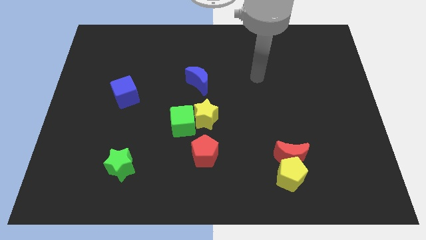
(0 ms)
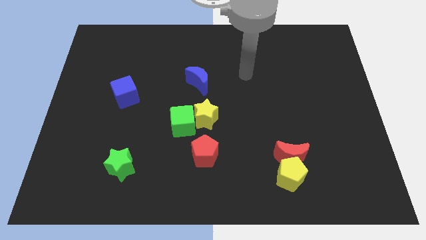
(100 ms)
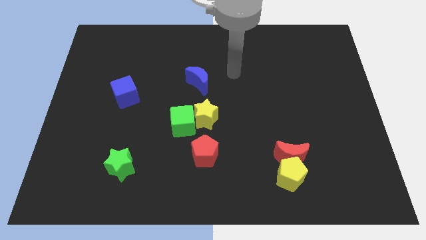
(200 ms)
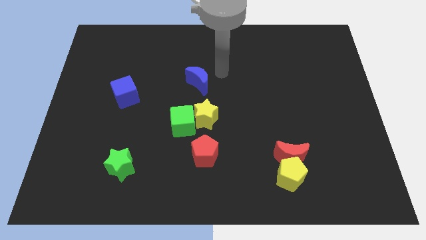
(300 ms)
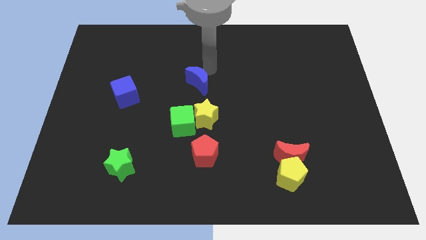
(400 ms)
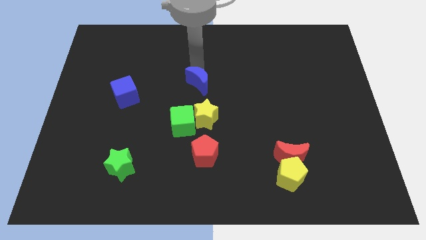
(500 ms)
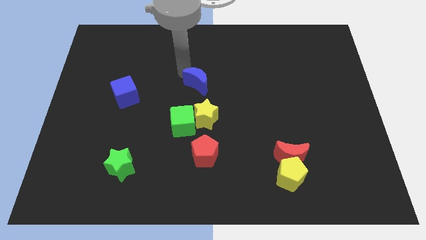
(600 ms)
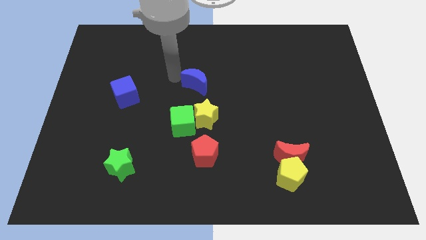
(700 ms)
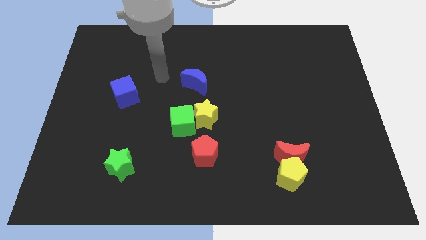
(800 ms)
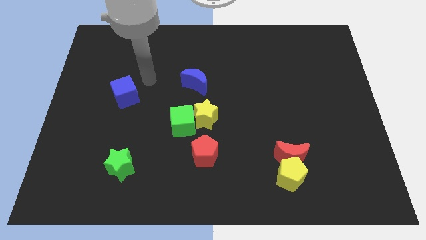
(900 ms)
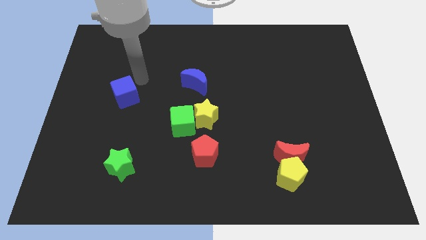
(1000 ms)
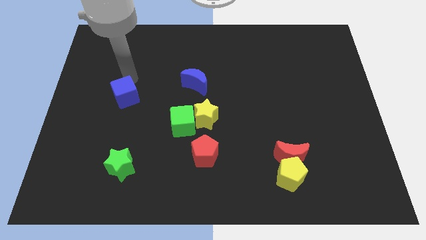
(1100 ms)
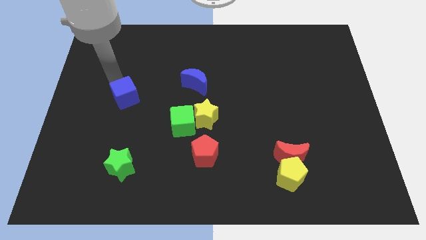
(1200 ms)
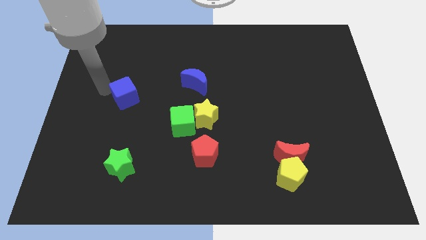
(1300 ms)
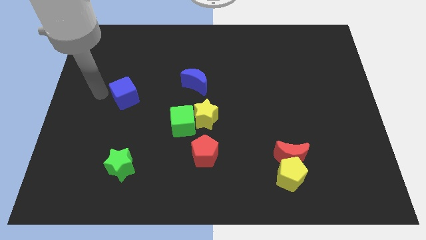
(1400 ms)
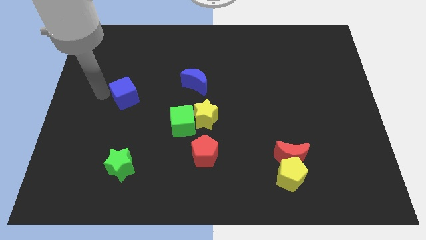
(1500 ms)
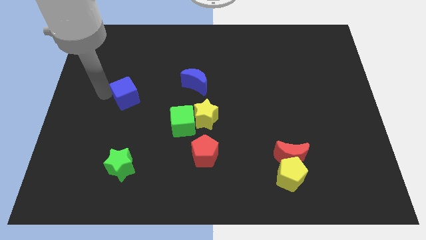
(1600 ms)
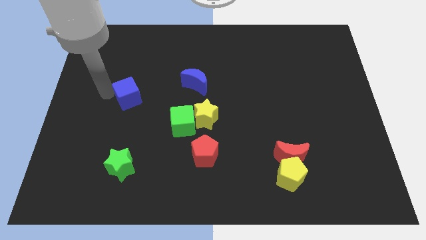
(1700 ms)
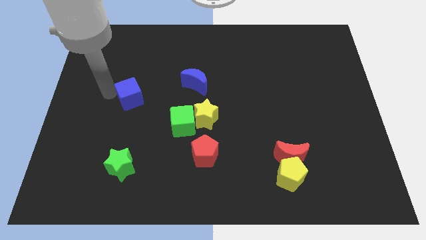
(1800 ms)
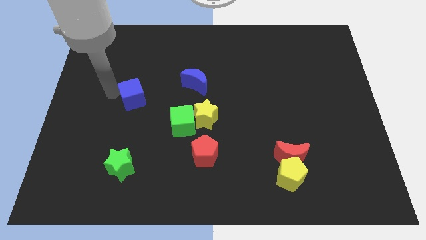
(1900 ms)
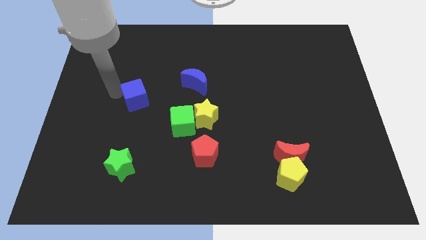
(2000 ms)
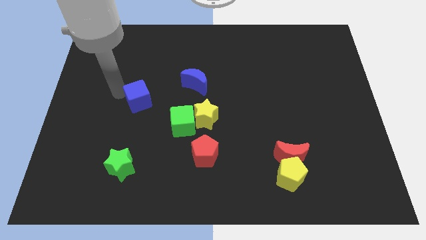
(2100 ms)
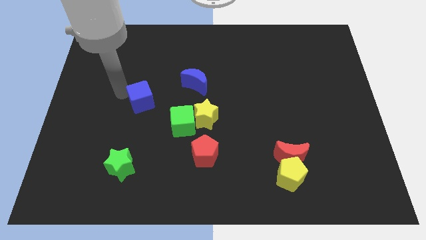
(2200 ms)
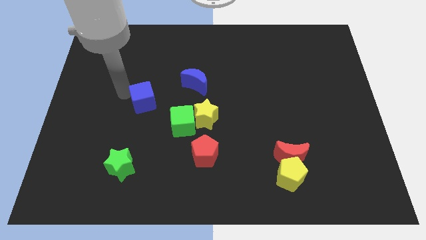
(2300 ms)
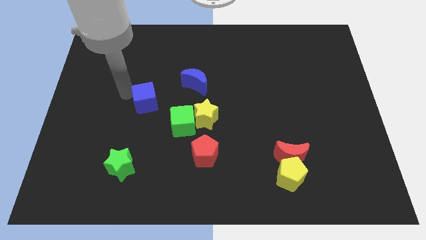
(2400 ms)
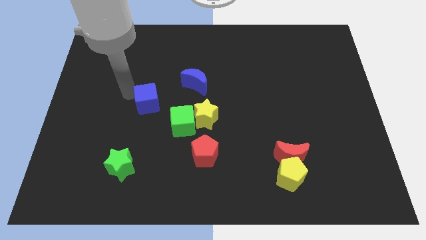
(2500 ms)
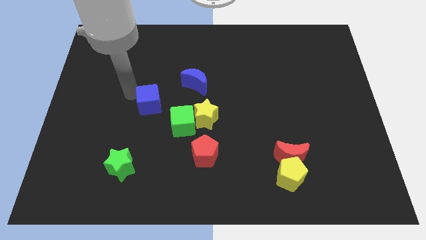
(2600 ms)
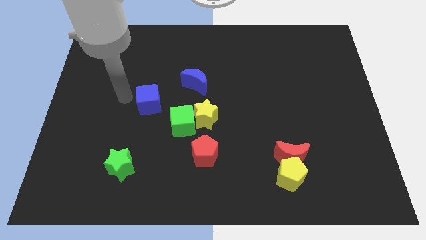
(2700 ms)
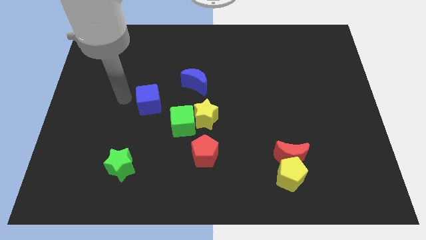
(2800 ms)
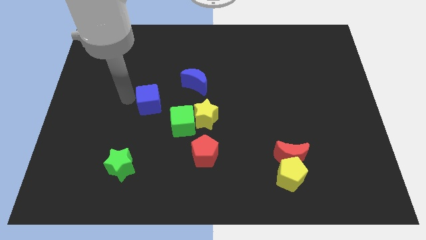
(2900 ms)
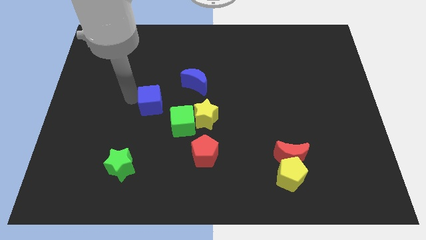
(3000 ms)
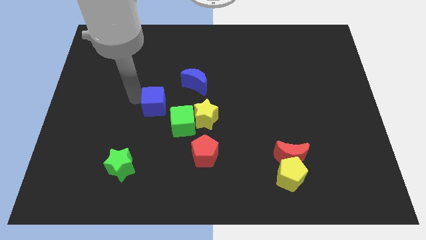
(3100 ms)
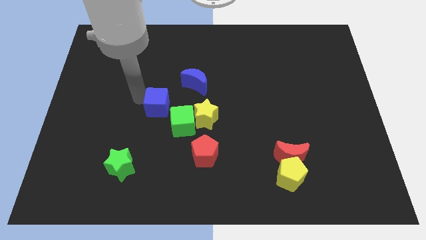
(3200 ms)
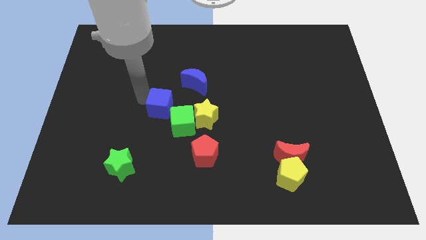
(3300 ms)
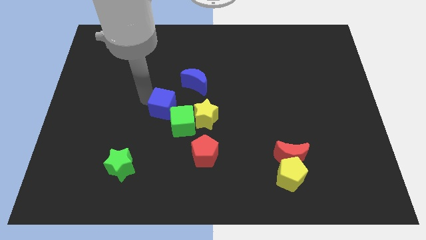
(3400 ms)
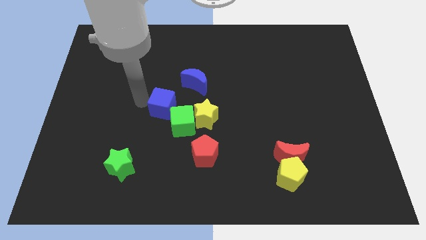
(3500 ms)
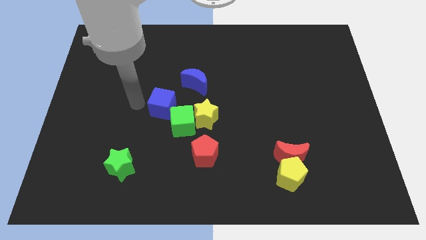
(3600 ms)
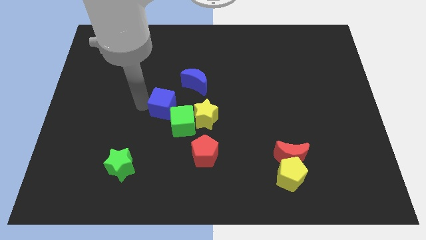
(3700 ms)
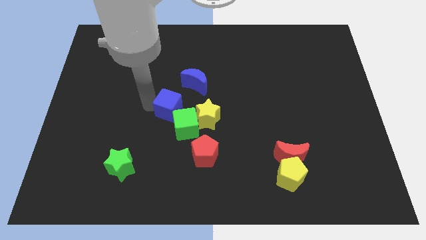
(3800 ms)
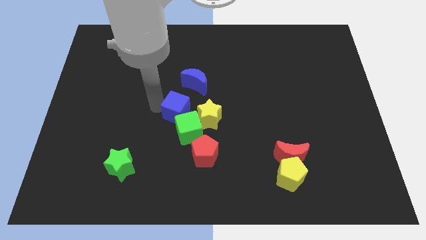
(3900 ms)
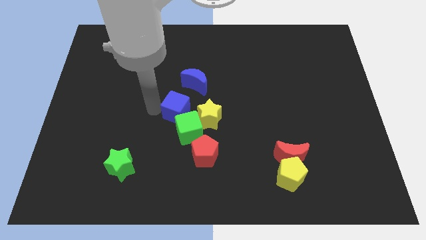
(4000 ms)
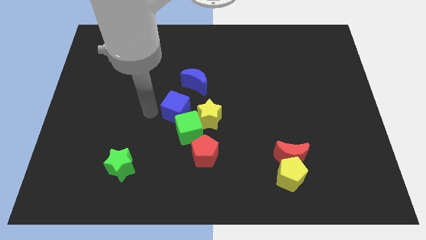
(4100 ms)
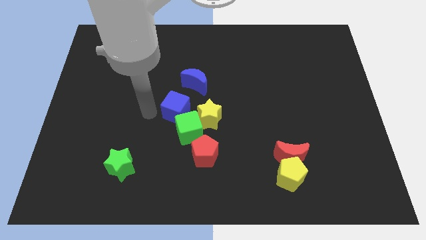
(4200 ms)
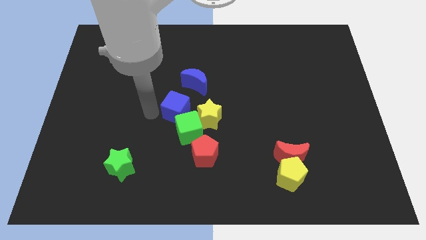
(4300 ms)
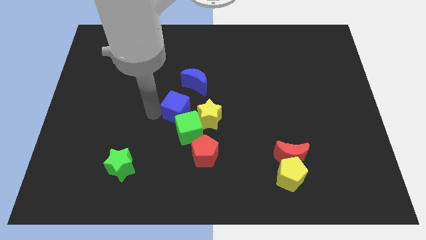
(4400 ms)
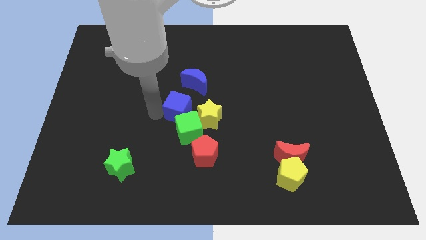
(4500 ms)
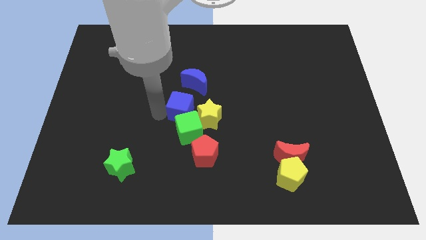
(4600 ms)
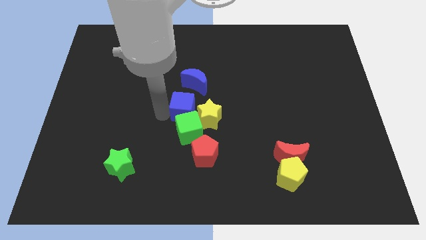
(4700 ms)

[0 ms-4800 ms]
slide the blue cube next to the yellow star

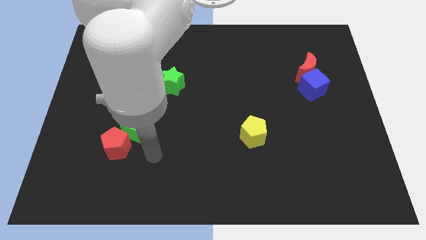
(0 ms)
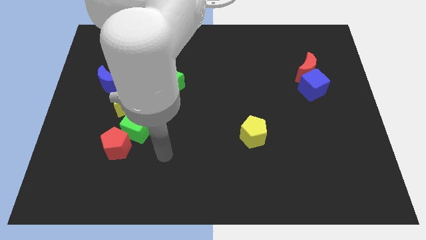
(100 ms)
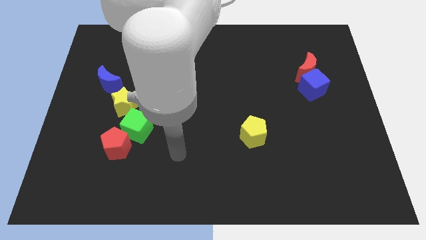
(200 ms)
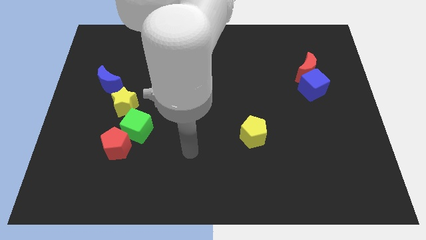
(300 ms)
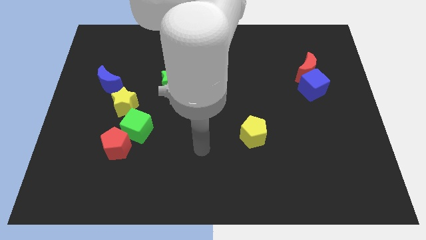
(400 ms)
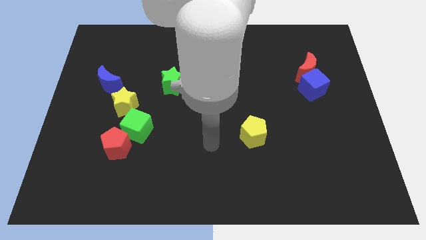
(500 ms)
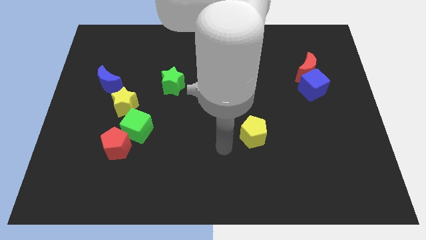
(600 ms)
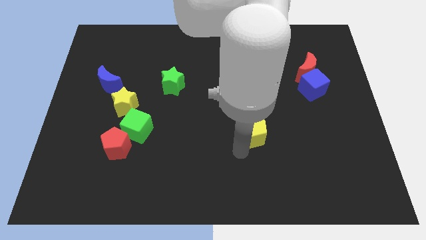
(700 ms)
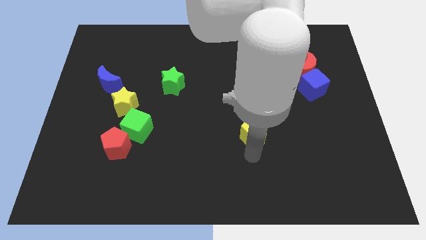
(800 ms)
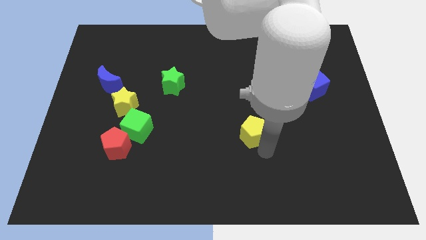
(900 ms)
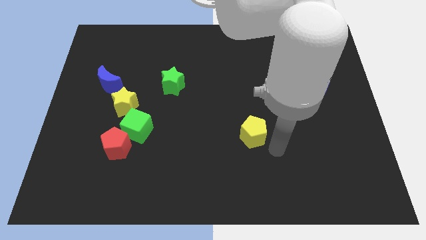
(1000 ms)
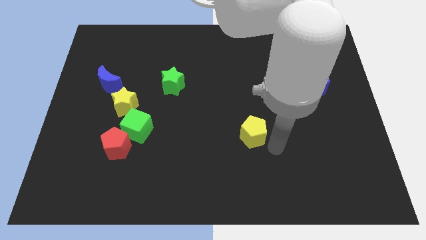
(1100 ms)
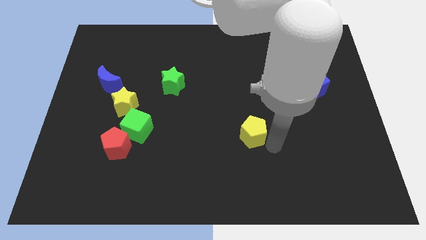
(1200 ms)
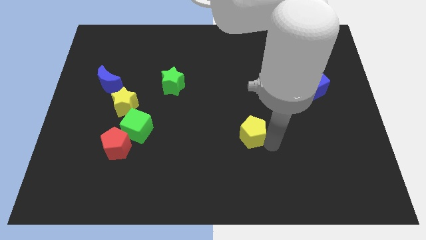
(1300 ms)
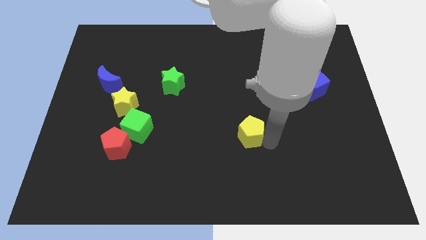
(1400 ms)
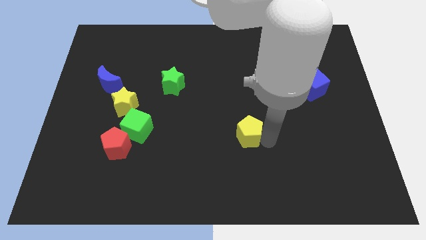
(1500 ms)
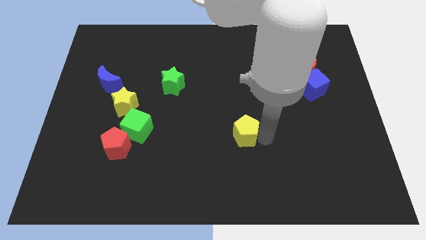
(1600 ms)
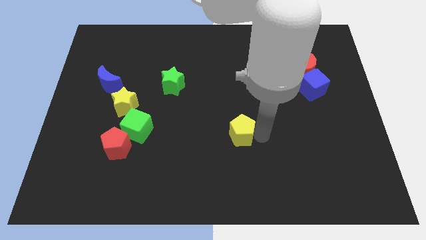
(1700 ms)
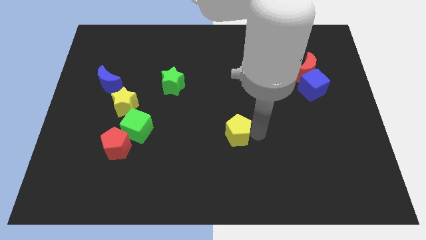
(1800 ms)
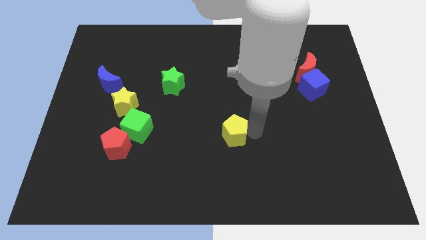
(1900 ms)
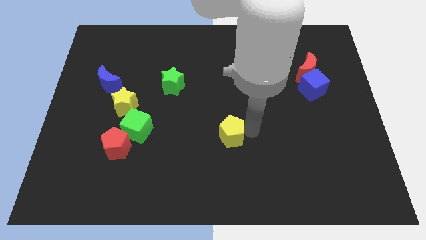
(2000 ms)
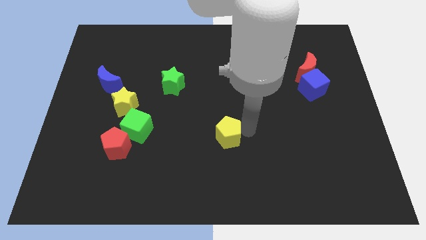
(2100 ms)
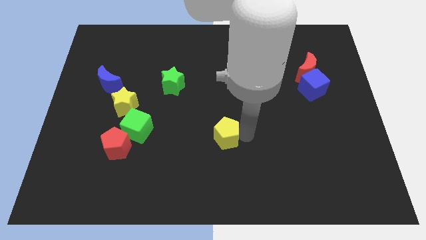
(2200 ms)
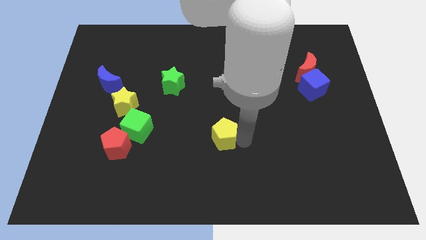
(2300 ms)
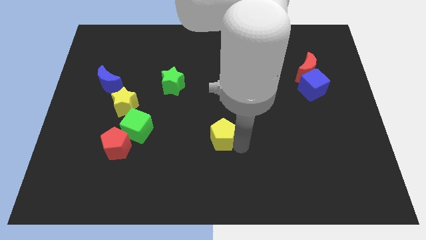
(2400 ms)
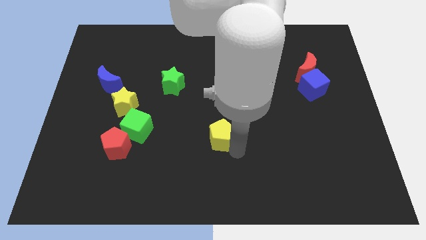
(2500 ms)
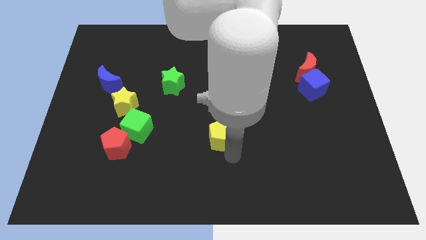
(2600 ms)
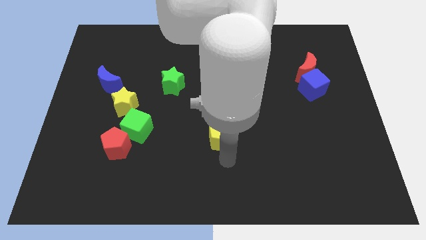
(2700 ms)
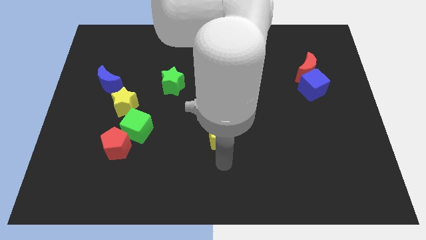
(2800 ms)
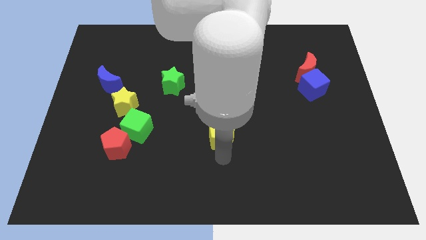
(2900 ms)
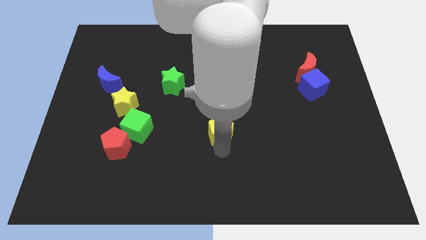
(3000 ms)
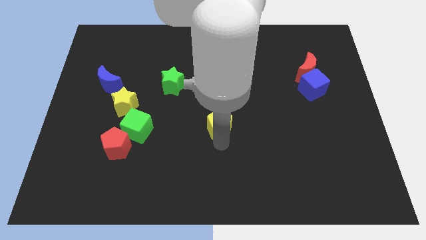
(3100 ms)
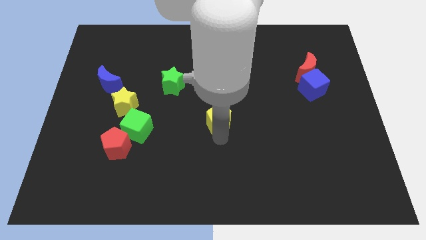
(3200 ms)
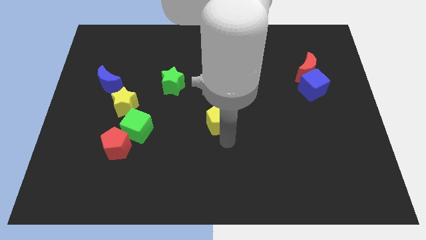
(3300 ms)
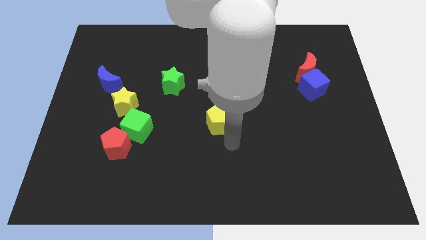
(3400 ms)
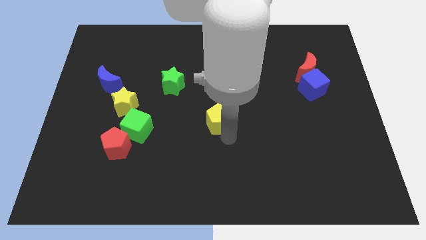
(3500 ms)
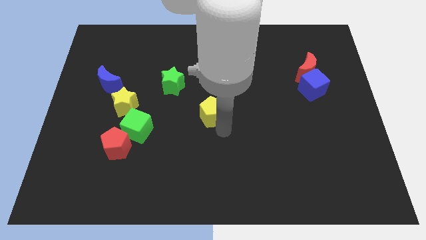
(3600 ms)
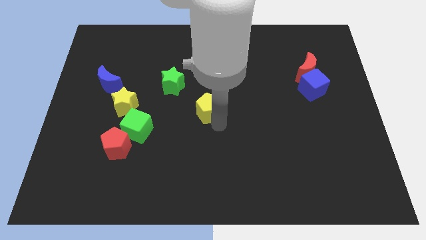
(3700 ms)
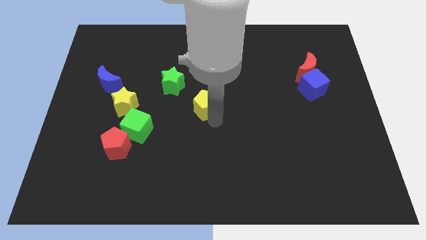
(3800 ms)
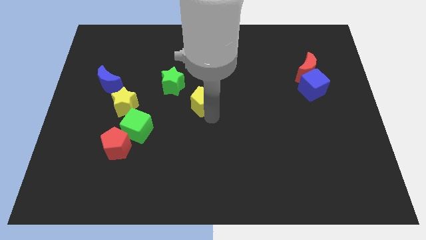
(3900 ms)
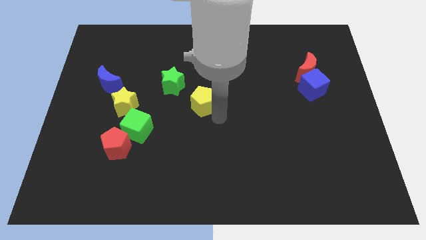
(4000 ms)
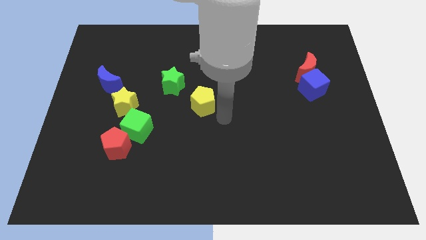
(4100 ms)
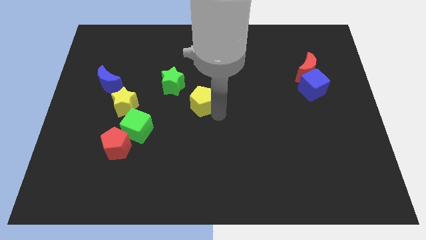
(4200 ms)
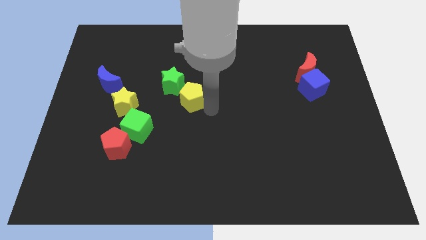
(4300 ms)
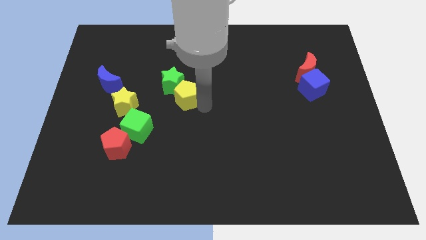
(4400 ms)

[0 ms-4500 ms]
slide the yellow pentagon next to the green star
